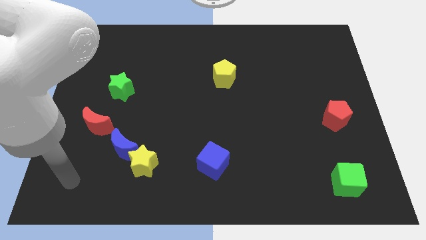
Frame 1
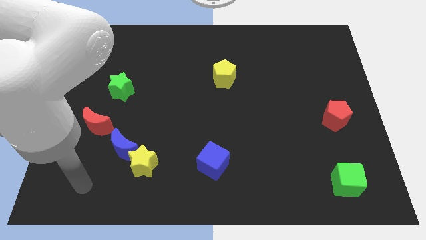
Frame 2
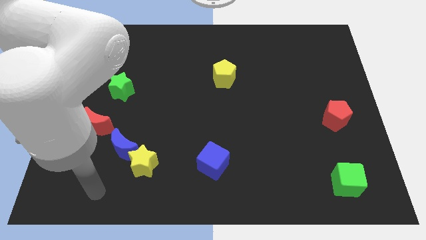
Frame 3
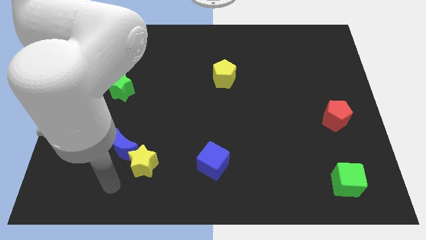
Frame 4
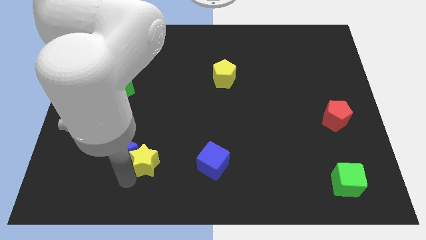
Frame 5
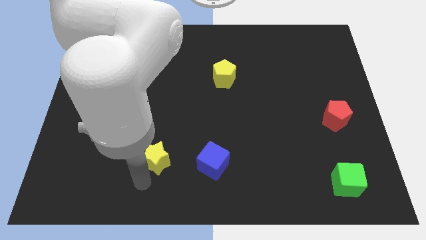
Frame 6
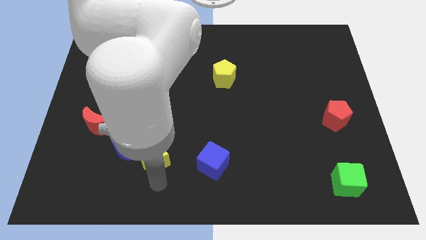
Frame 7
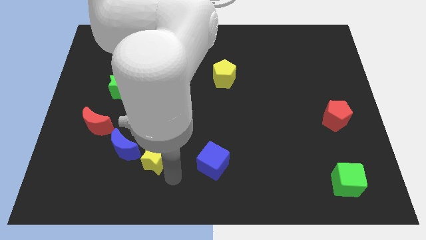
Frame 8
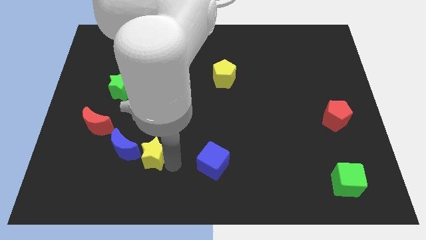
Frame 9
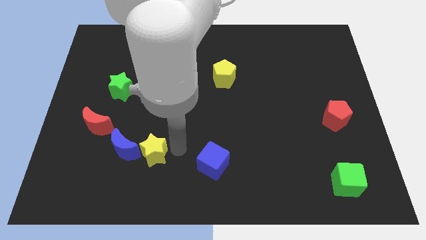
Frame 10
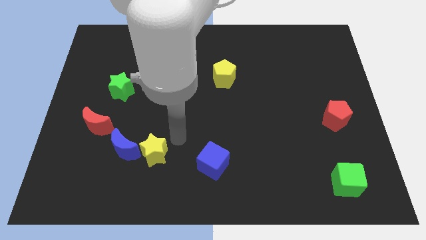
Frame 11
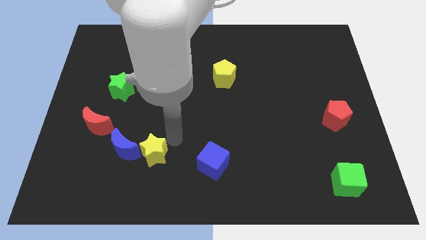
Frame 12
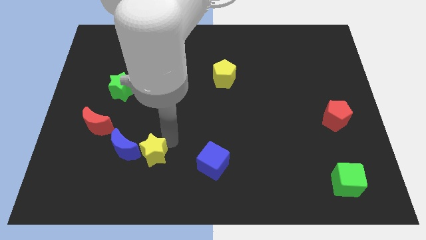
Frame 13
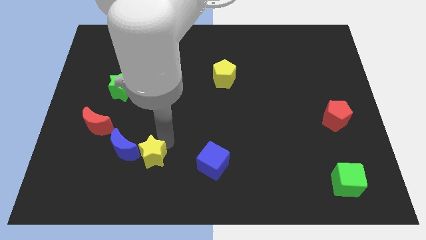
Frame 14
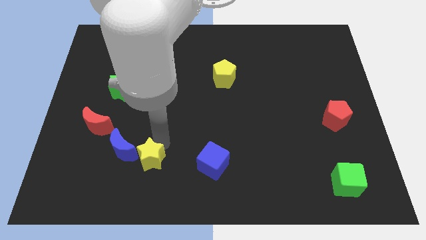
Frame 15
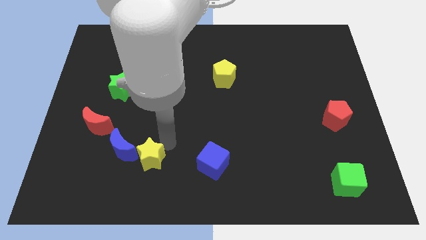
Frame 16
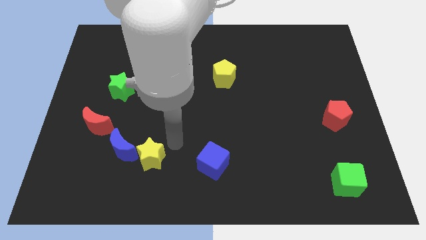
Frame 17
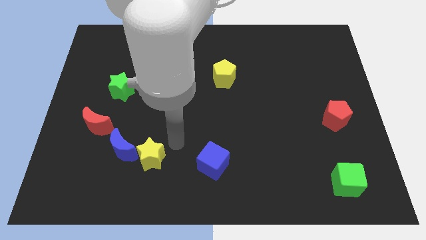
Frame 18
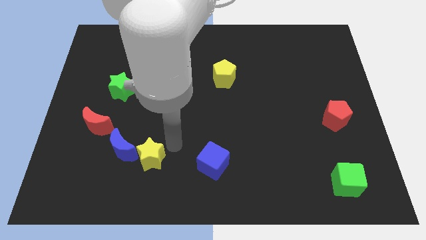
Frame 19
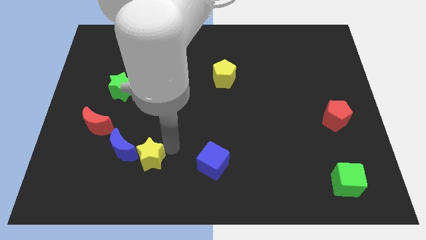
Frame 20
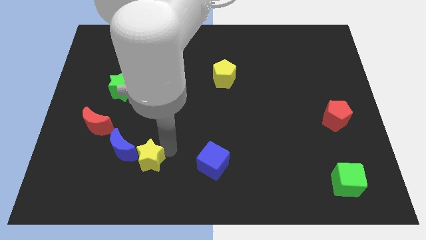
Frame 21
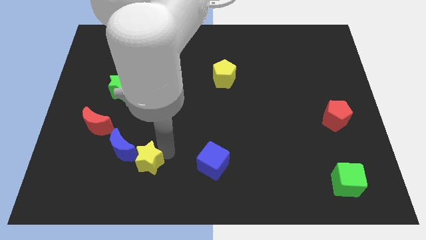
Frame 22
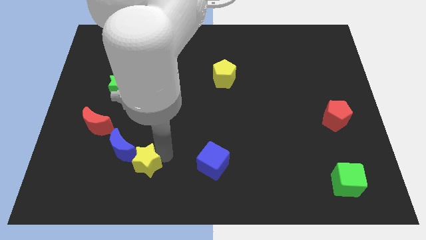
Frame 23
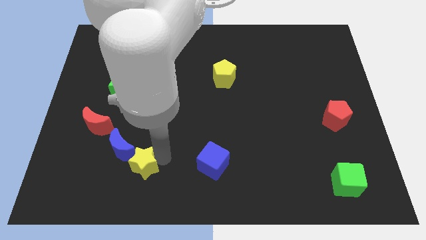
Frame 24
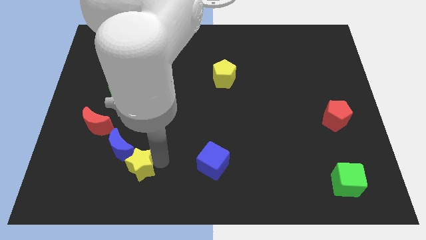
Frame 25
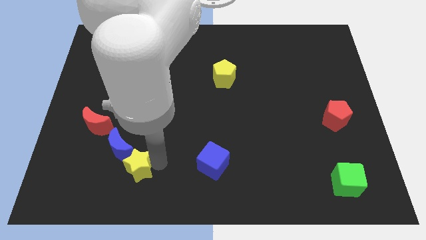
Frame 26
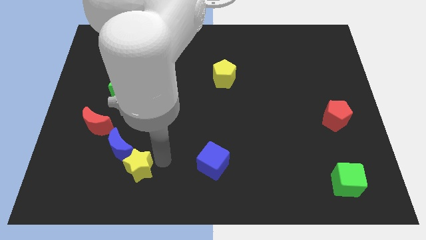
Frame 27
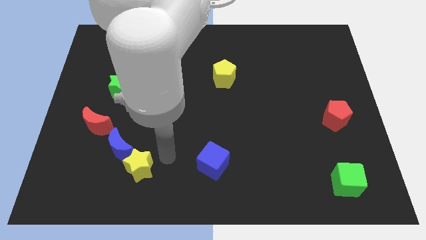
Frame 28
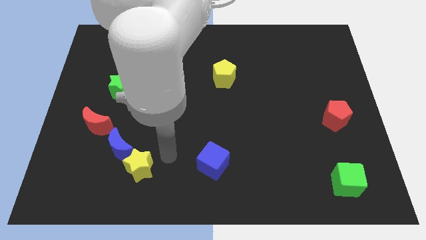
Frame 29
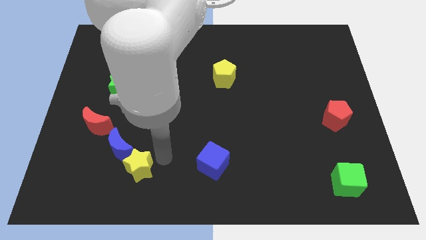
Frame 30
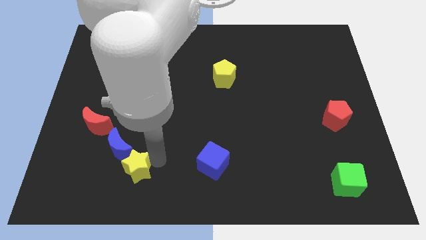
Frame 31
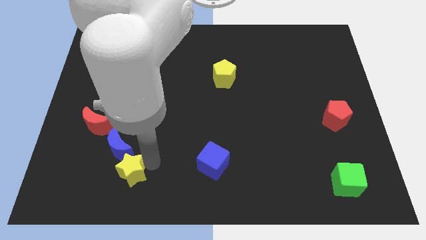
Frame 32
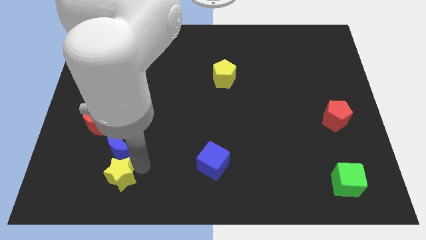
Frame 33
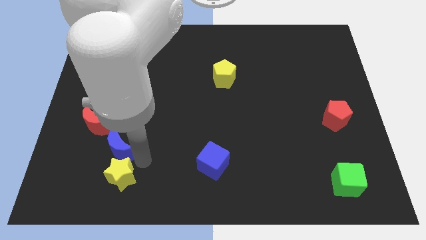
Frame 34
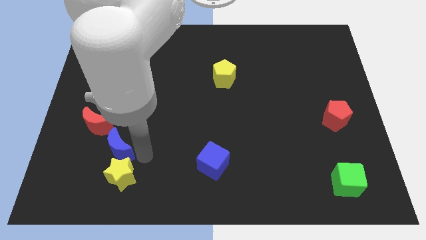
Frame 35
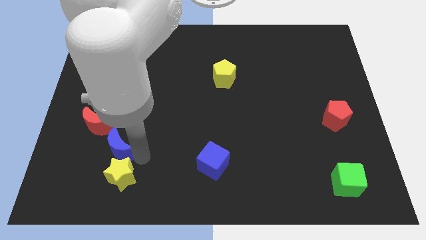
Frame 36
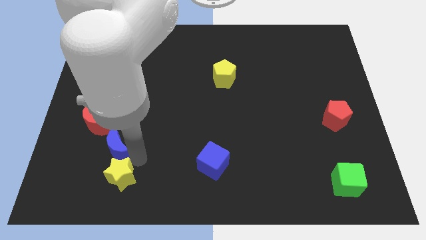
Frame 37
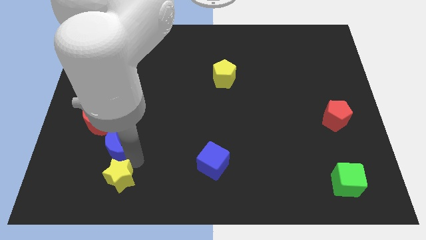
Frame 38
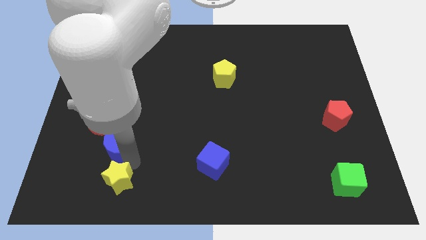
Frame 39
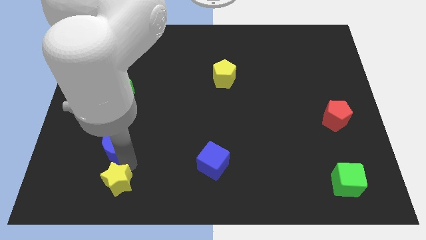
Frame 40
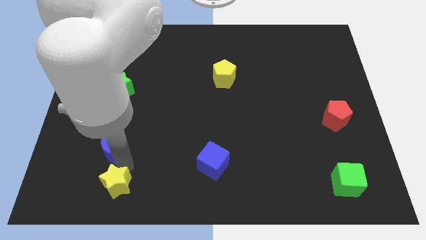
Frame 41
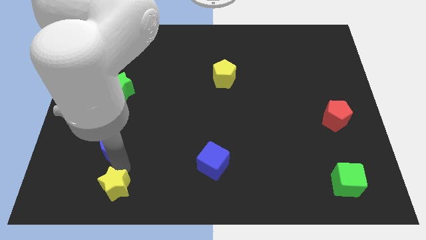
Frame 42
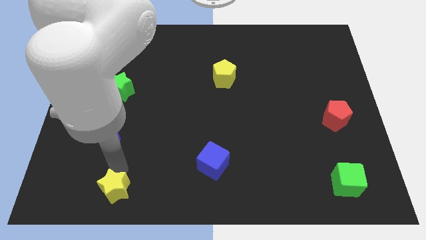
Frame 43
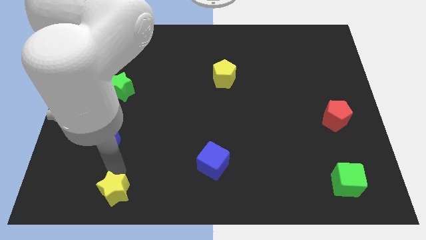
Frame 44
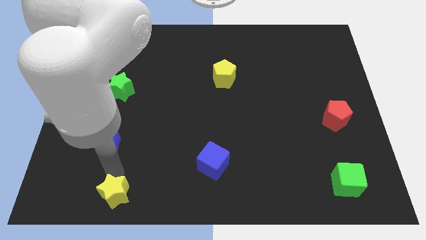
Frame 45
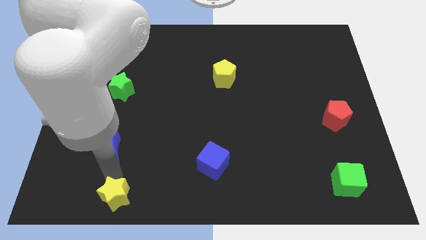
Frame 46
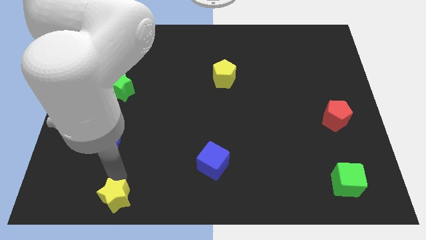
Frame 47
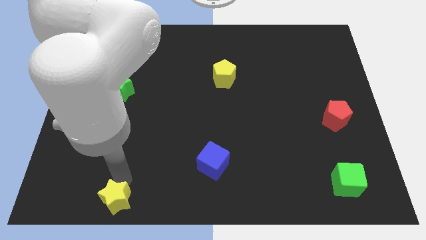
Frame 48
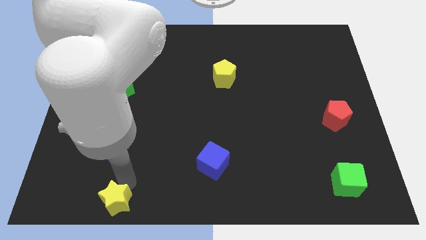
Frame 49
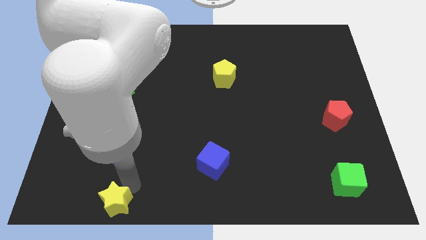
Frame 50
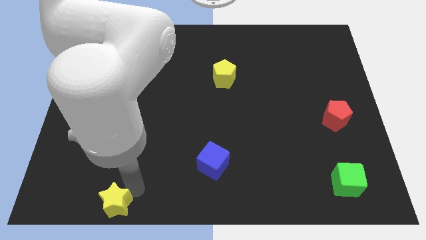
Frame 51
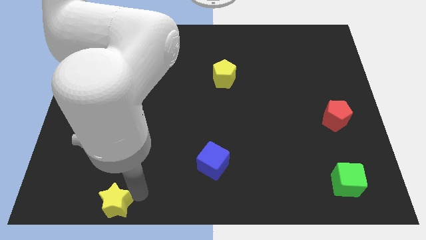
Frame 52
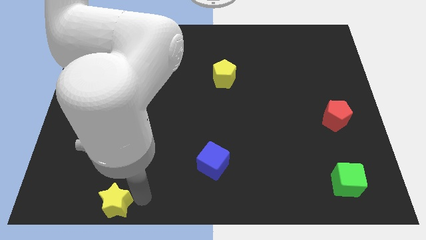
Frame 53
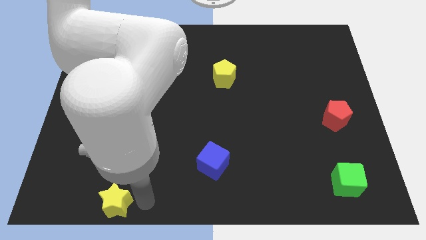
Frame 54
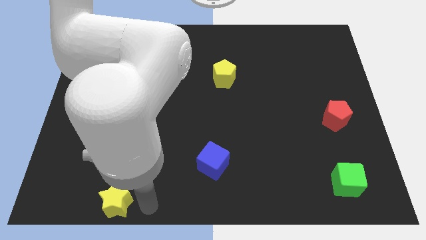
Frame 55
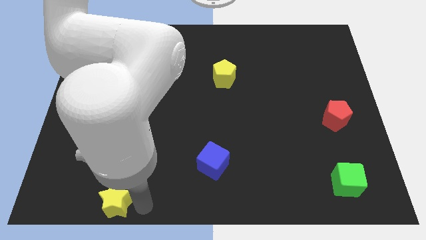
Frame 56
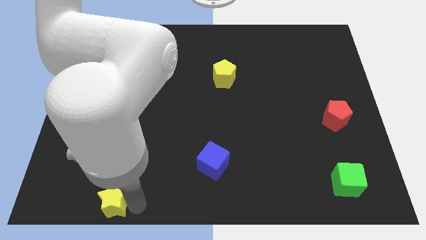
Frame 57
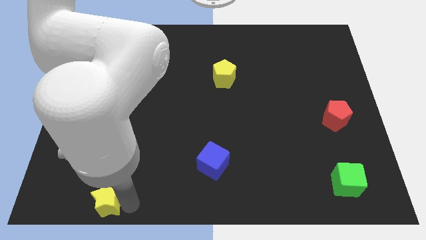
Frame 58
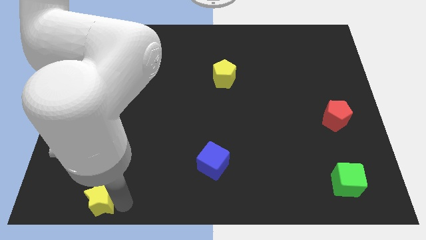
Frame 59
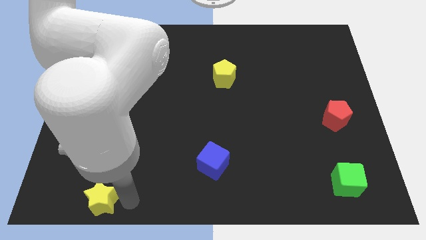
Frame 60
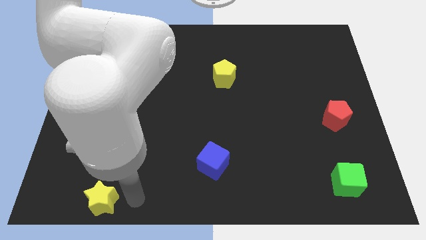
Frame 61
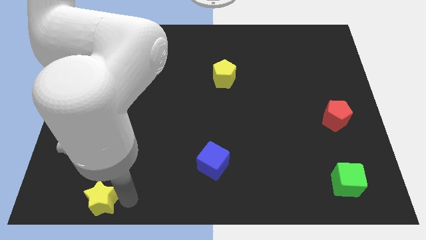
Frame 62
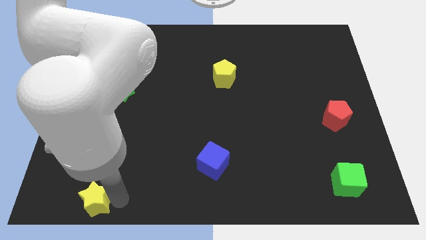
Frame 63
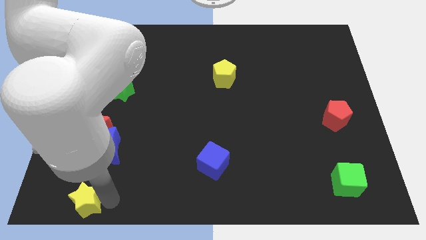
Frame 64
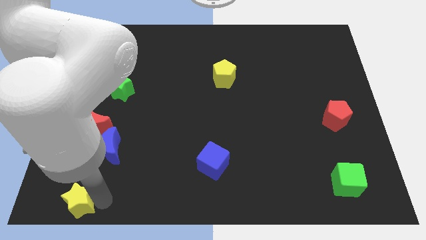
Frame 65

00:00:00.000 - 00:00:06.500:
slide the yellow star to the bottom left

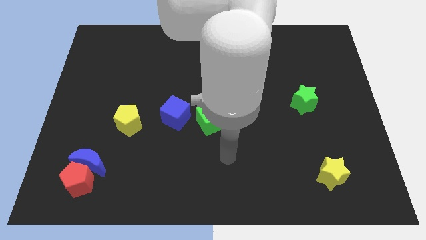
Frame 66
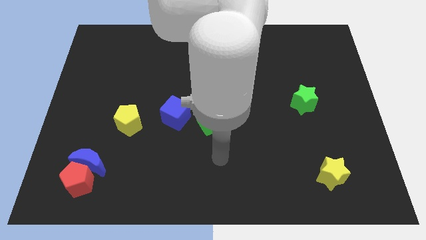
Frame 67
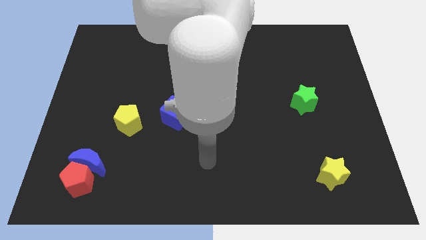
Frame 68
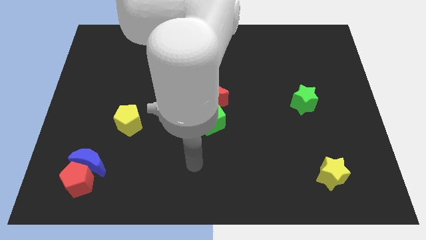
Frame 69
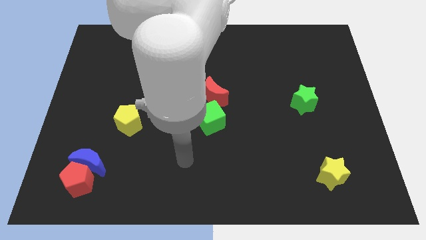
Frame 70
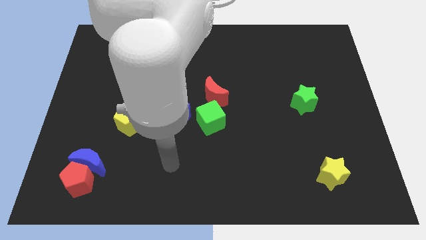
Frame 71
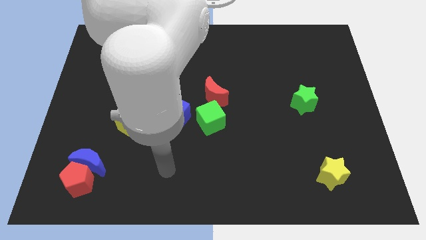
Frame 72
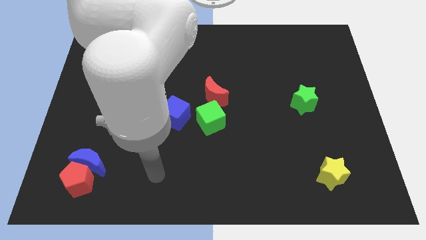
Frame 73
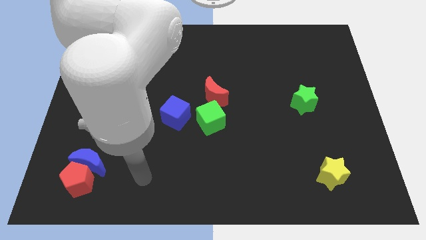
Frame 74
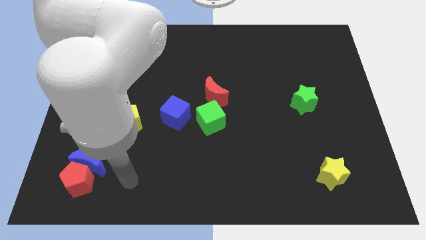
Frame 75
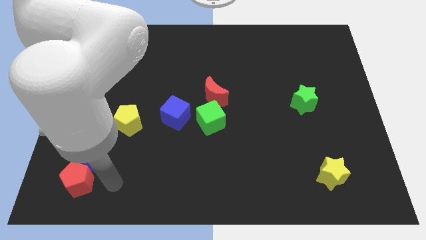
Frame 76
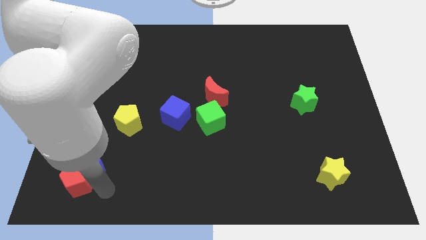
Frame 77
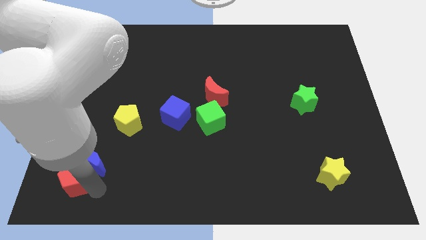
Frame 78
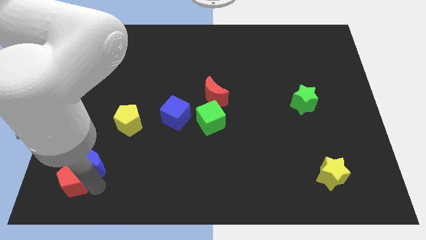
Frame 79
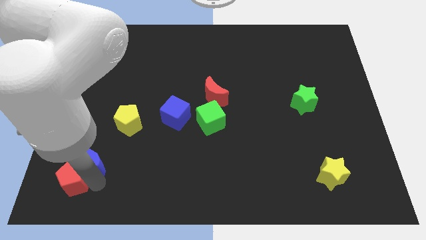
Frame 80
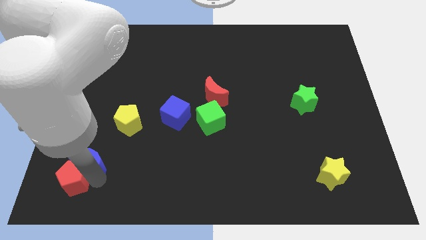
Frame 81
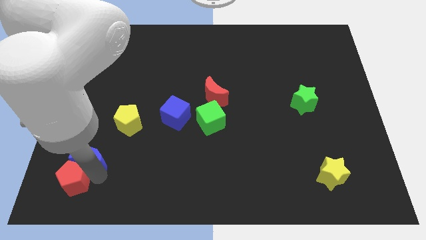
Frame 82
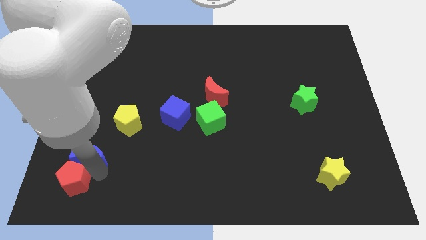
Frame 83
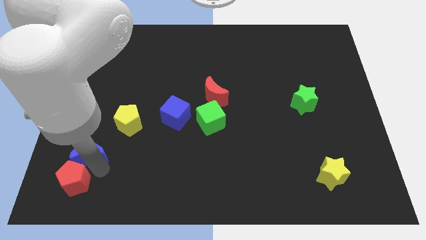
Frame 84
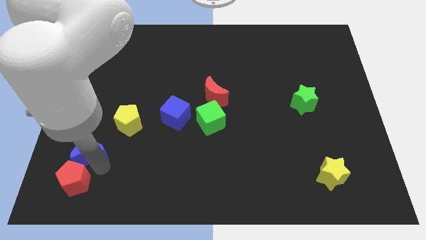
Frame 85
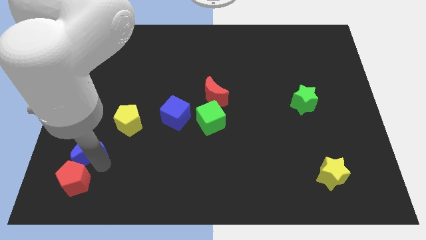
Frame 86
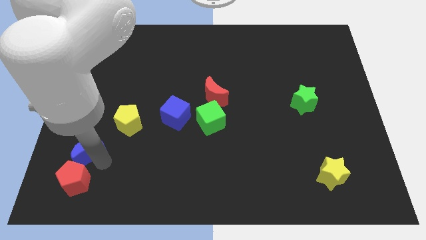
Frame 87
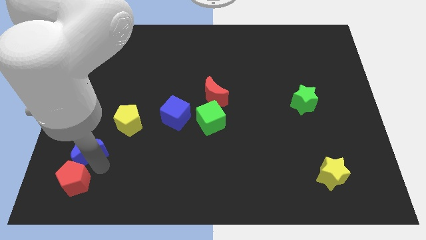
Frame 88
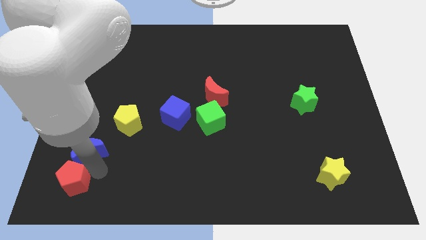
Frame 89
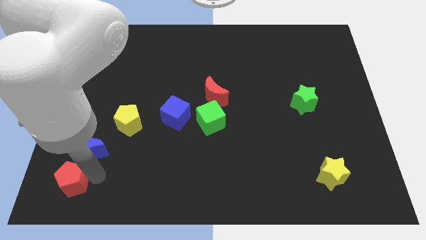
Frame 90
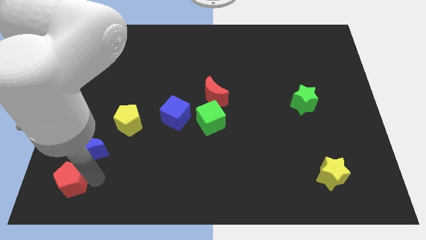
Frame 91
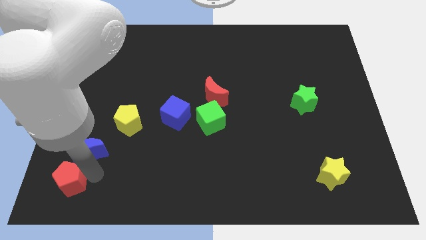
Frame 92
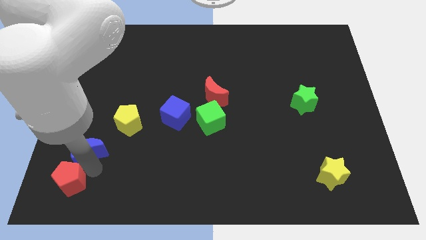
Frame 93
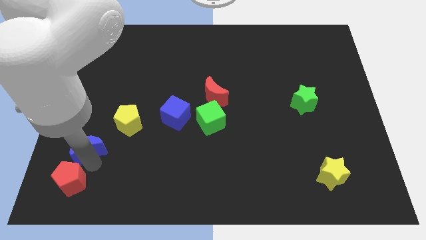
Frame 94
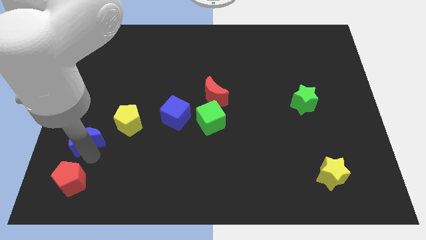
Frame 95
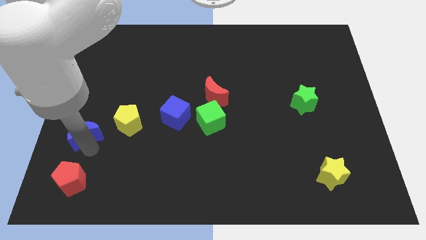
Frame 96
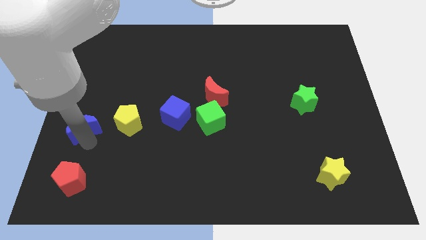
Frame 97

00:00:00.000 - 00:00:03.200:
slide the blue moon to the left side of the board
